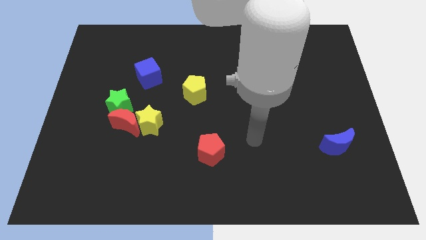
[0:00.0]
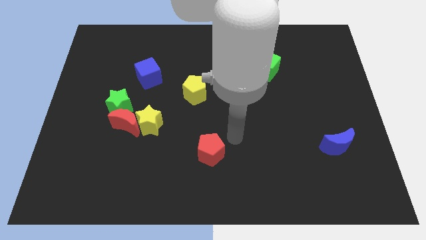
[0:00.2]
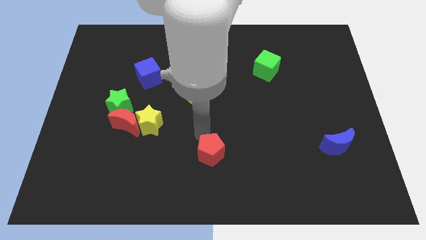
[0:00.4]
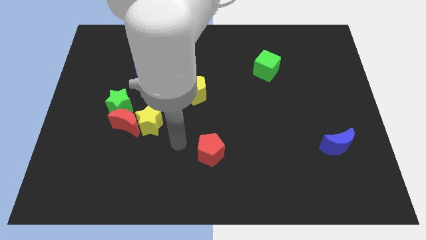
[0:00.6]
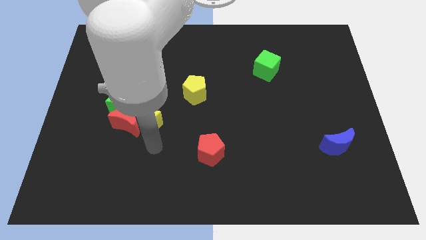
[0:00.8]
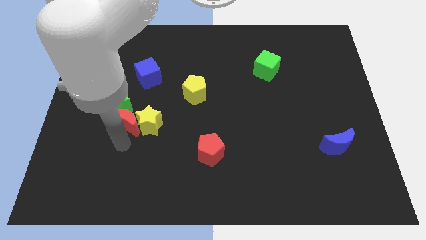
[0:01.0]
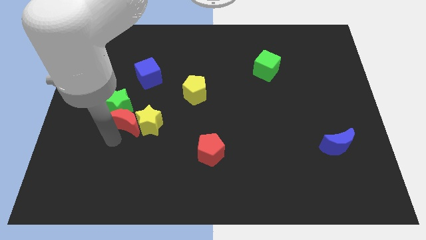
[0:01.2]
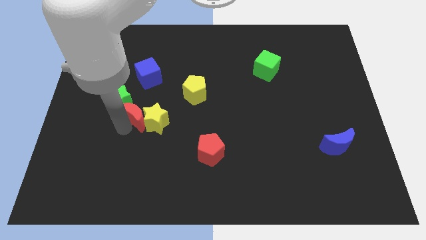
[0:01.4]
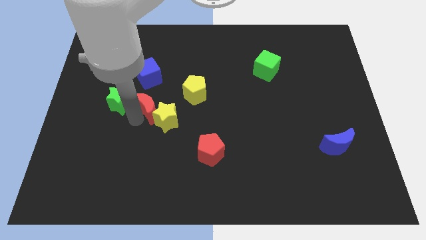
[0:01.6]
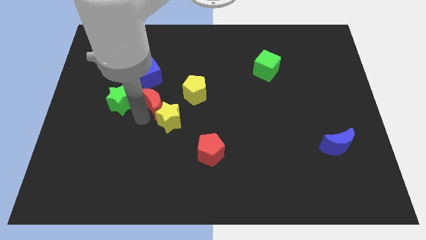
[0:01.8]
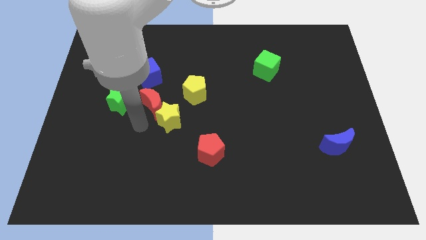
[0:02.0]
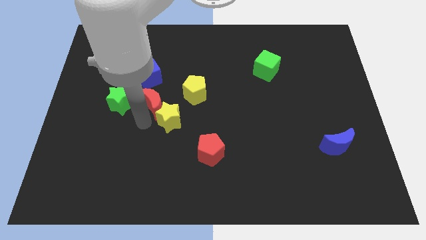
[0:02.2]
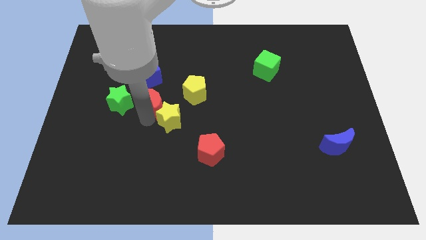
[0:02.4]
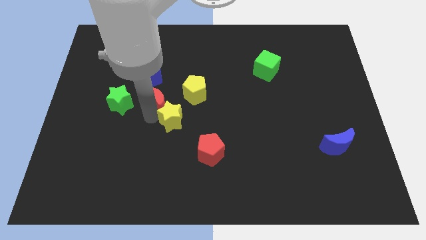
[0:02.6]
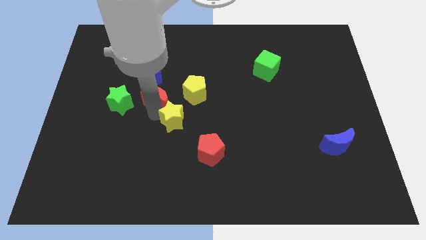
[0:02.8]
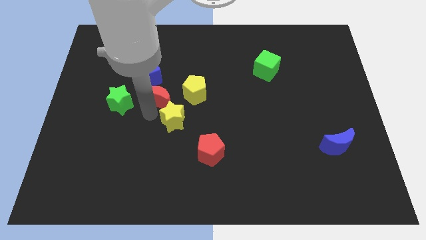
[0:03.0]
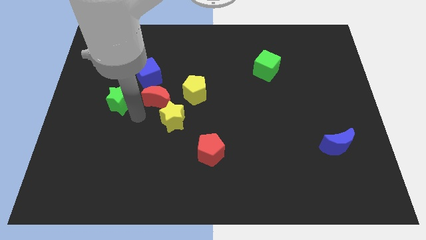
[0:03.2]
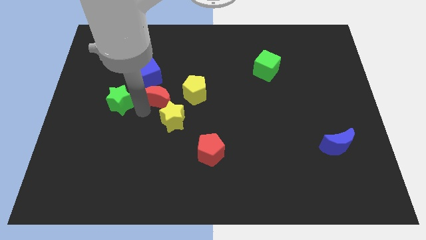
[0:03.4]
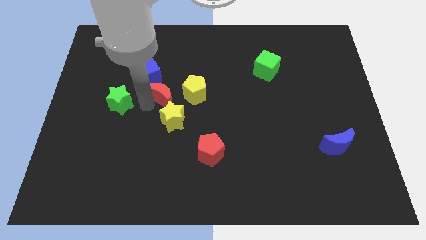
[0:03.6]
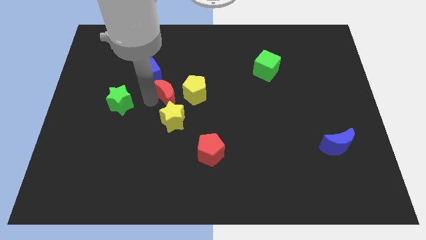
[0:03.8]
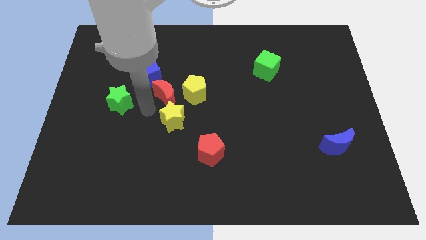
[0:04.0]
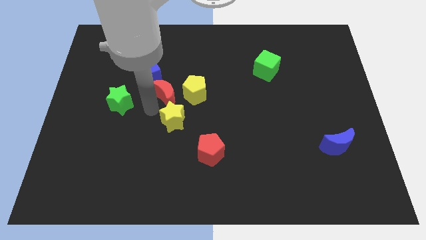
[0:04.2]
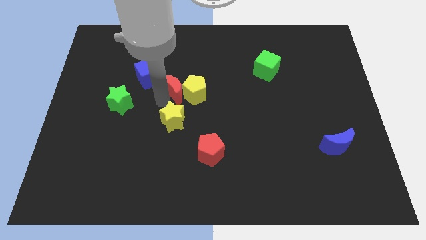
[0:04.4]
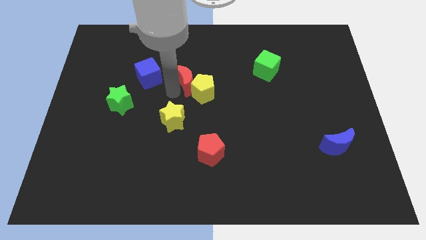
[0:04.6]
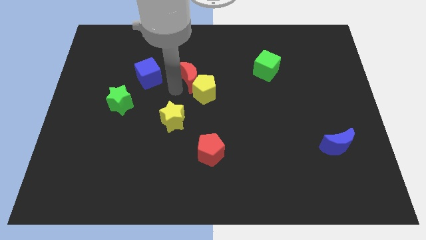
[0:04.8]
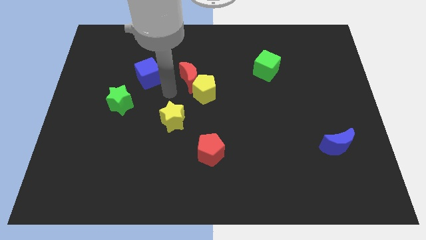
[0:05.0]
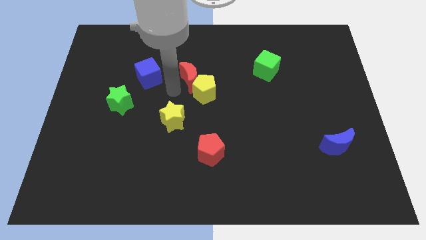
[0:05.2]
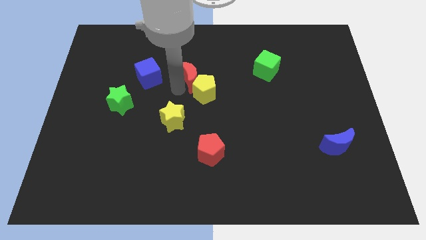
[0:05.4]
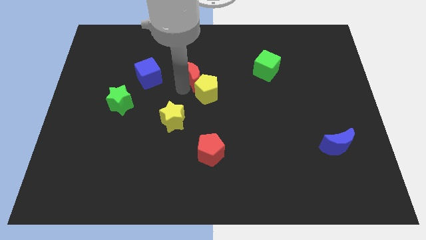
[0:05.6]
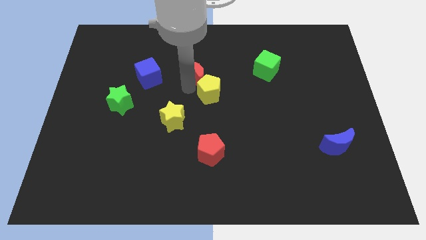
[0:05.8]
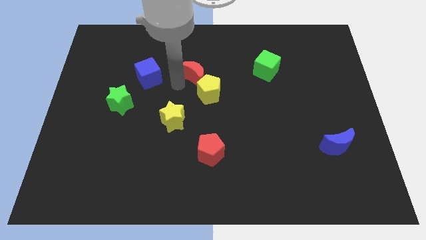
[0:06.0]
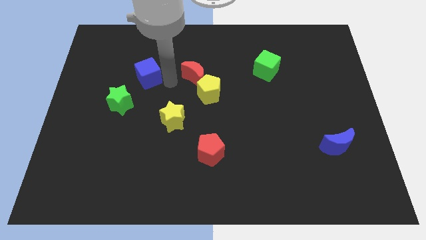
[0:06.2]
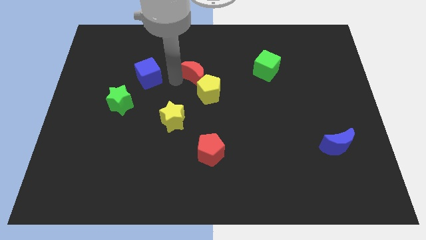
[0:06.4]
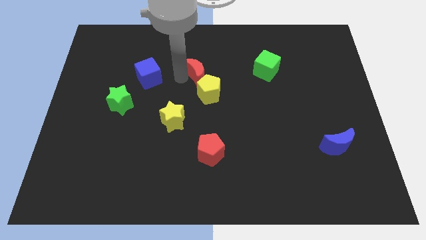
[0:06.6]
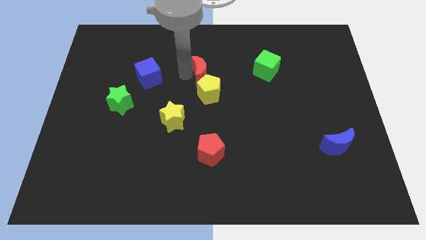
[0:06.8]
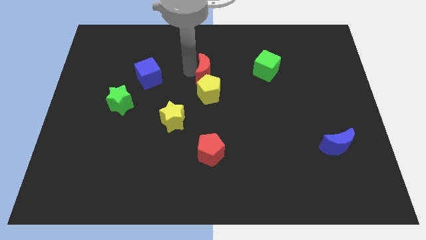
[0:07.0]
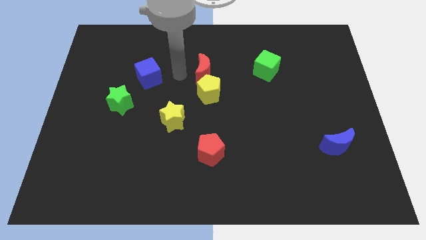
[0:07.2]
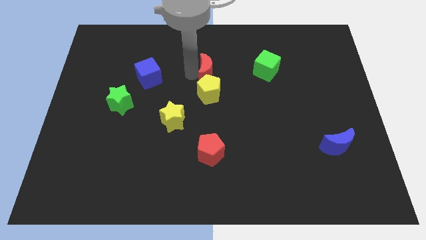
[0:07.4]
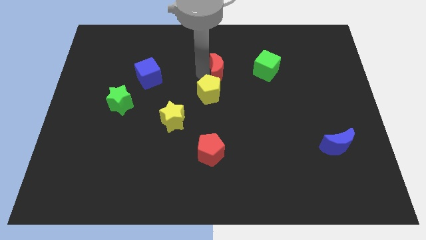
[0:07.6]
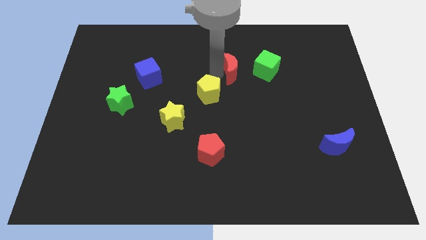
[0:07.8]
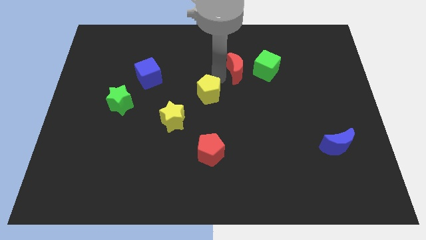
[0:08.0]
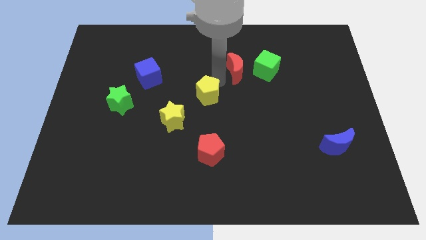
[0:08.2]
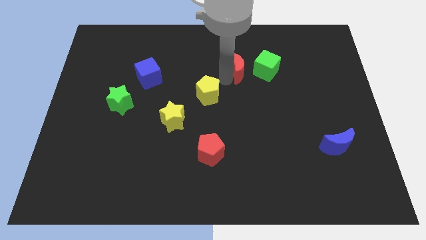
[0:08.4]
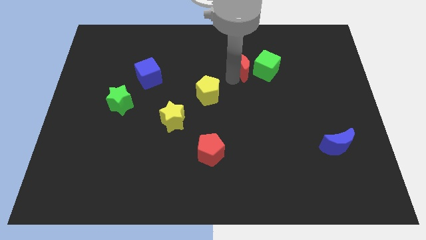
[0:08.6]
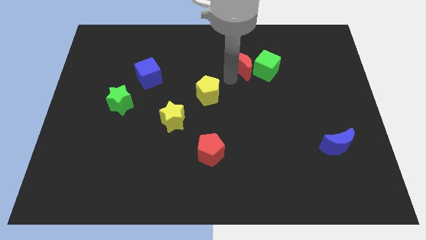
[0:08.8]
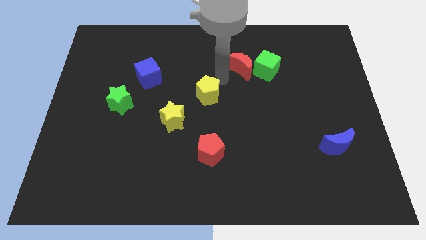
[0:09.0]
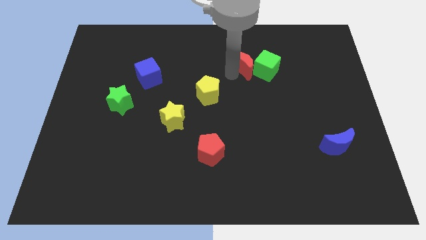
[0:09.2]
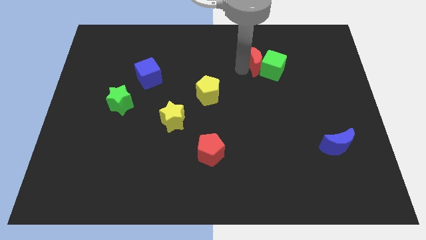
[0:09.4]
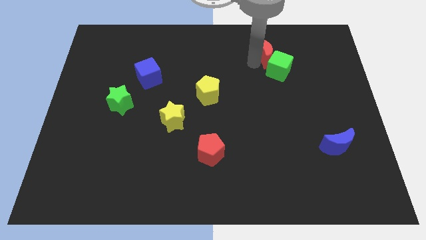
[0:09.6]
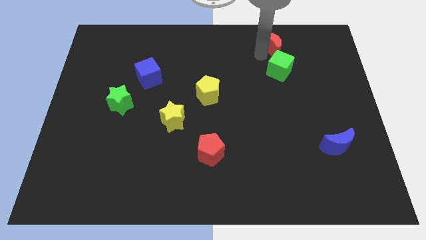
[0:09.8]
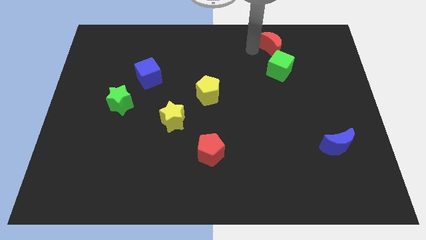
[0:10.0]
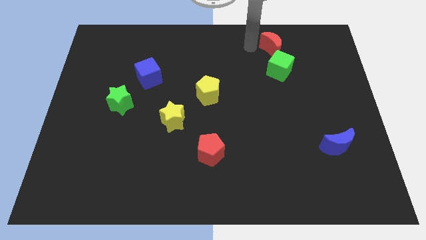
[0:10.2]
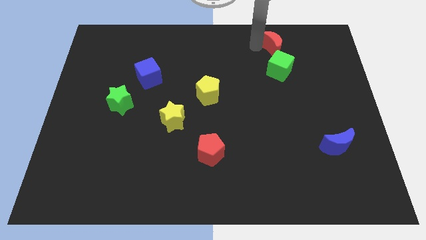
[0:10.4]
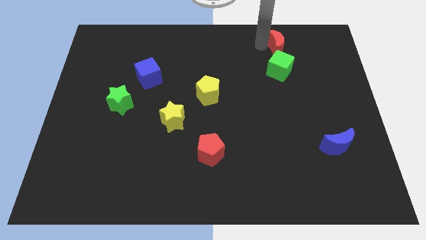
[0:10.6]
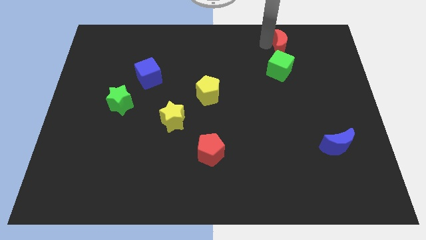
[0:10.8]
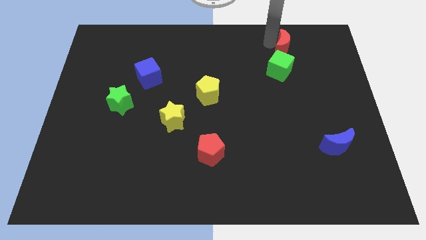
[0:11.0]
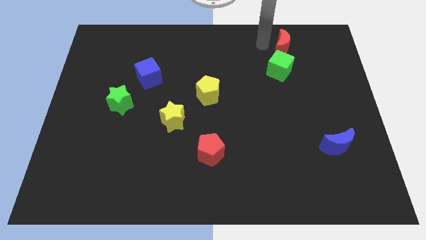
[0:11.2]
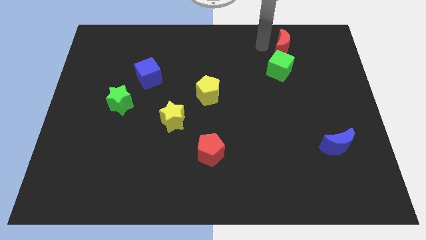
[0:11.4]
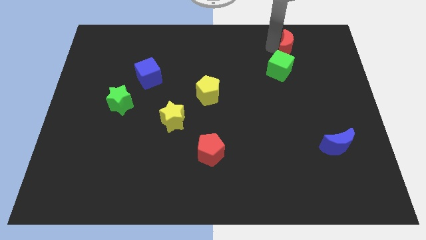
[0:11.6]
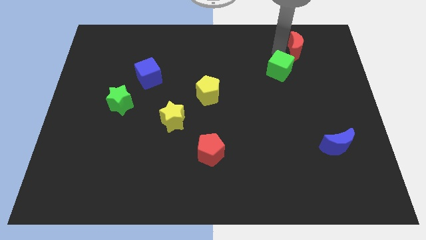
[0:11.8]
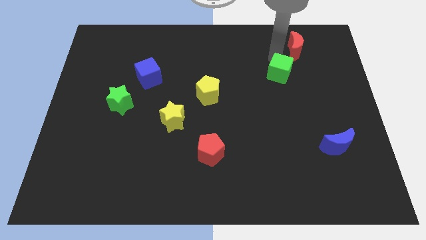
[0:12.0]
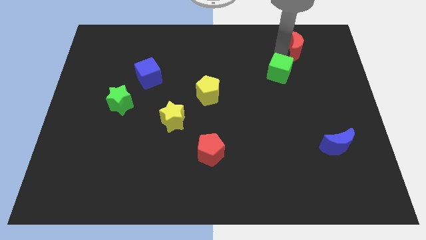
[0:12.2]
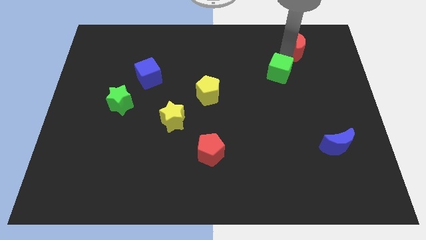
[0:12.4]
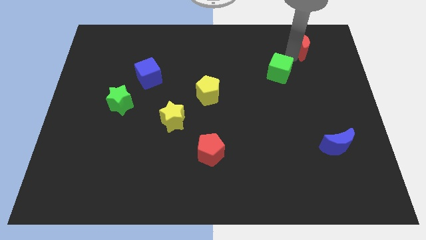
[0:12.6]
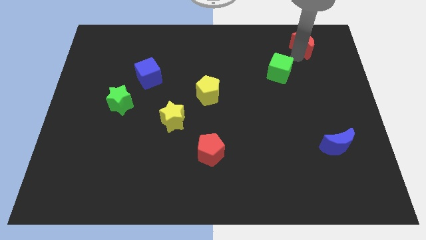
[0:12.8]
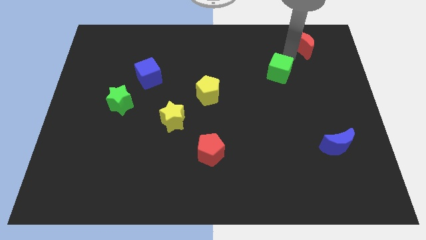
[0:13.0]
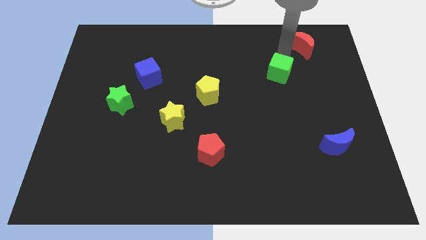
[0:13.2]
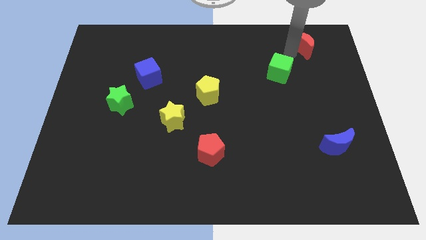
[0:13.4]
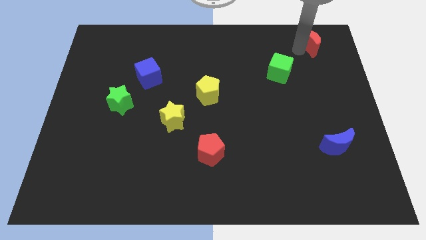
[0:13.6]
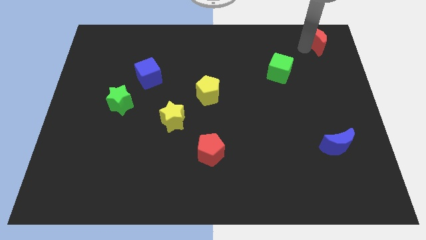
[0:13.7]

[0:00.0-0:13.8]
move the red moon to the upper right corner
